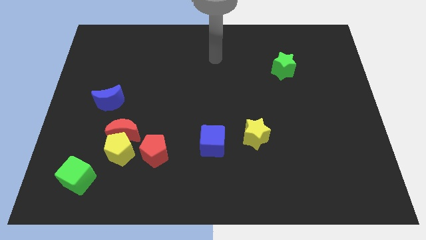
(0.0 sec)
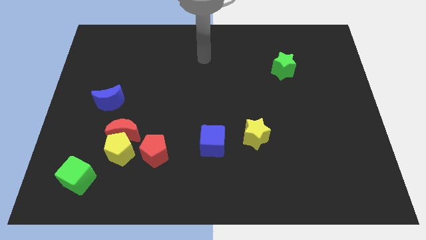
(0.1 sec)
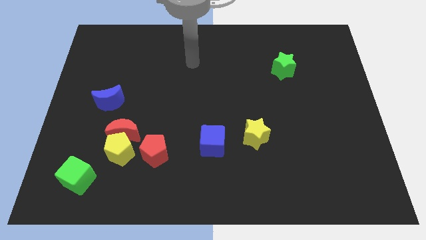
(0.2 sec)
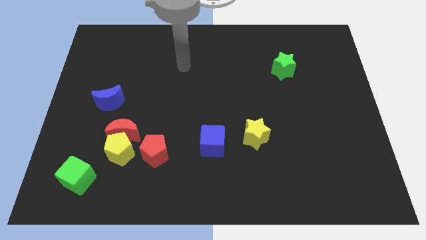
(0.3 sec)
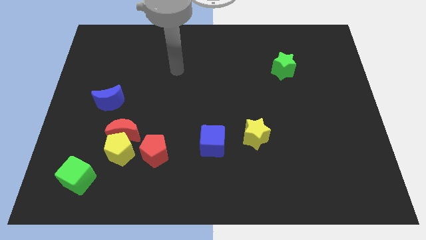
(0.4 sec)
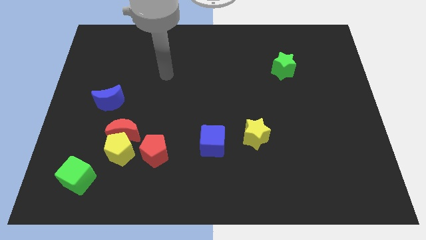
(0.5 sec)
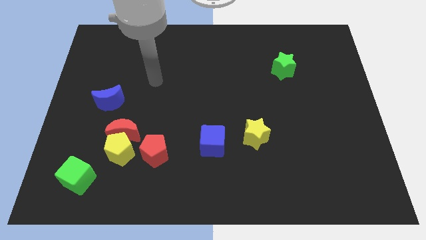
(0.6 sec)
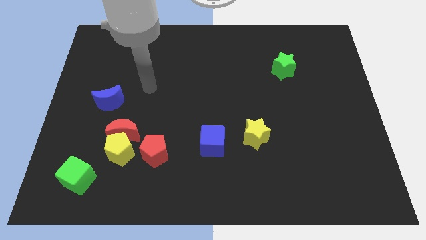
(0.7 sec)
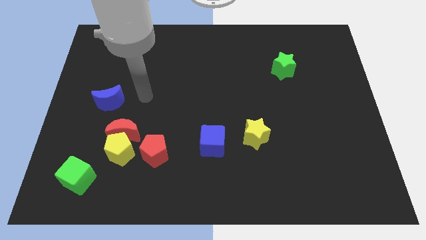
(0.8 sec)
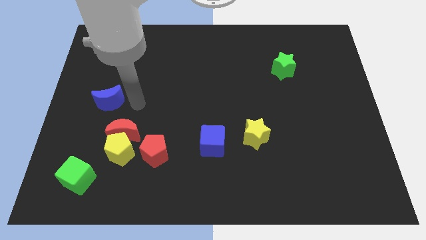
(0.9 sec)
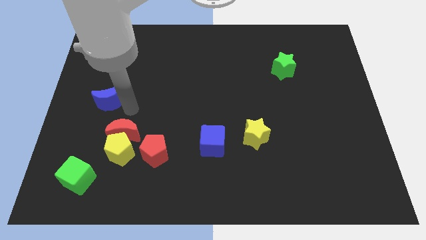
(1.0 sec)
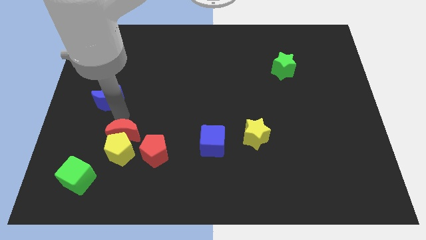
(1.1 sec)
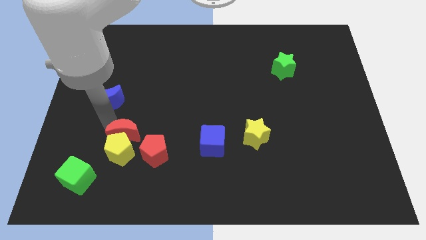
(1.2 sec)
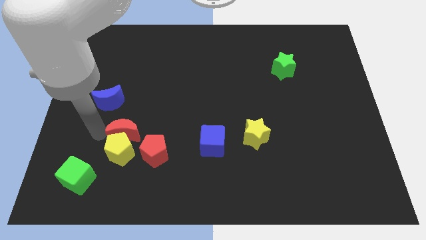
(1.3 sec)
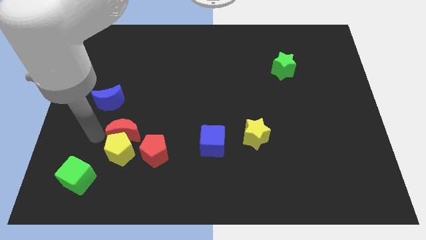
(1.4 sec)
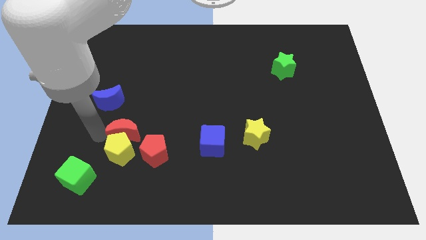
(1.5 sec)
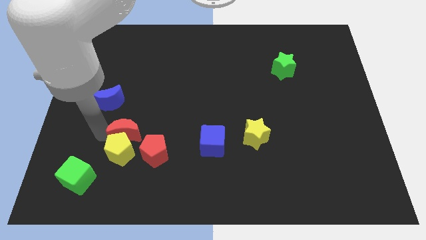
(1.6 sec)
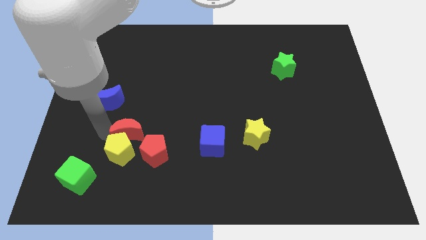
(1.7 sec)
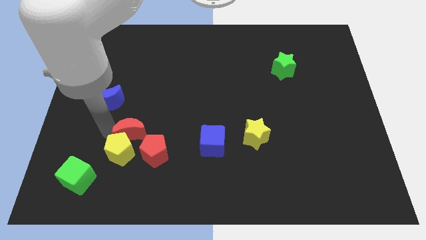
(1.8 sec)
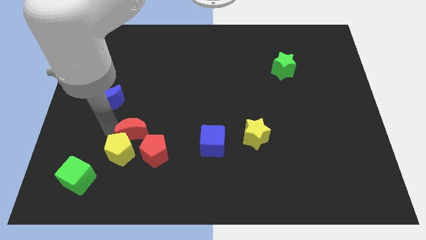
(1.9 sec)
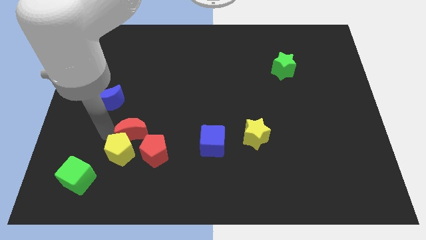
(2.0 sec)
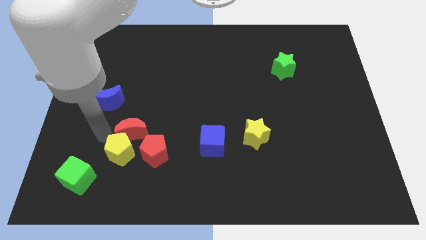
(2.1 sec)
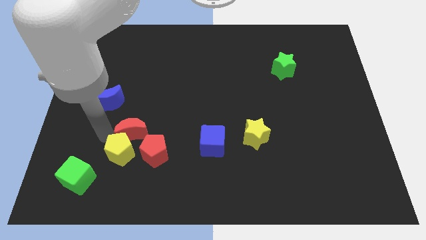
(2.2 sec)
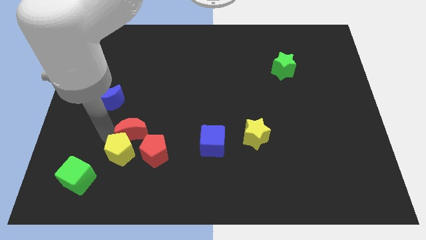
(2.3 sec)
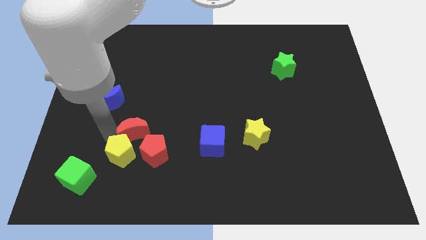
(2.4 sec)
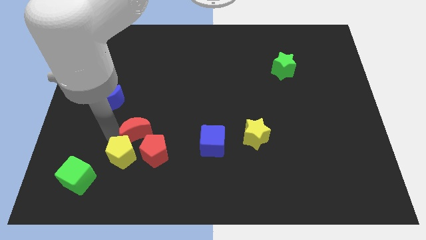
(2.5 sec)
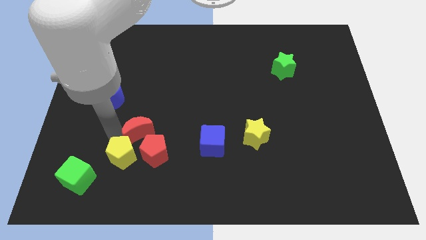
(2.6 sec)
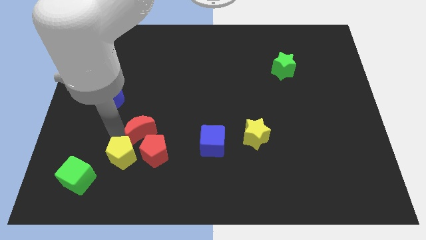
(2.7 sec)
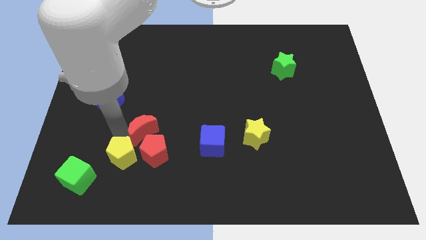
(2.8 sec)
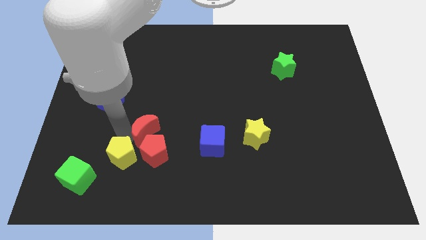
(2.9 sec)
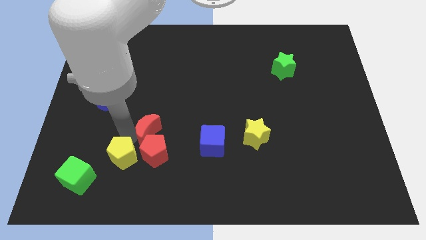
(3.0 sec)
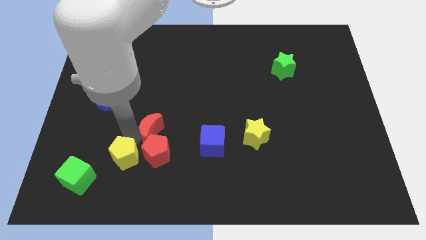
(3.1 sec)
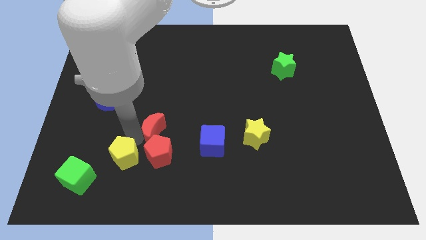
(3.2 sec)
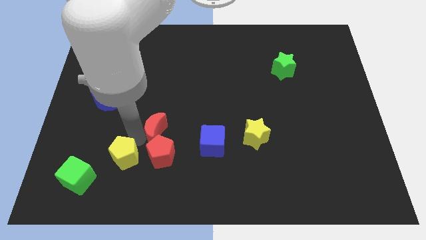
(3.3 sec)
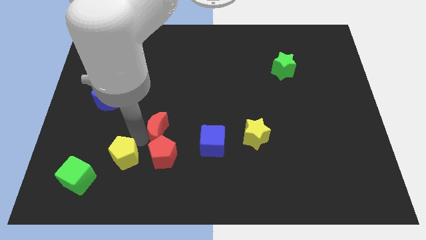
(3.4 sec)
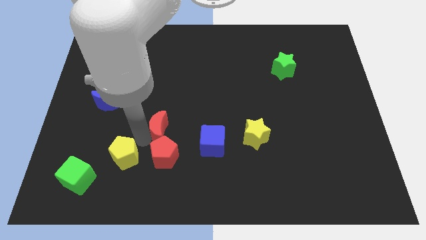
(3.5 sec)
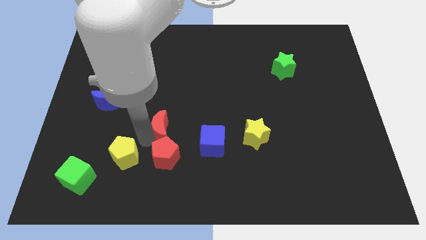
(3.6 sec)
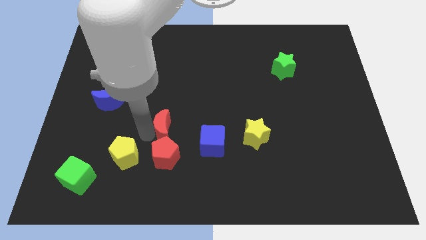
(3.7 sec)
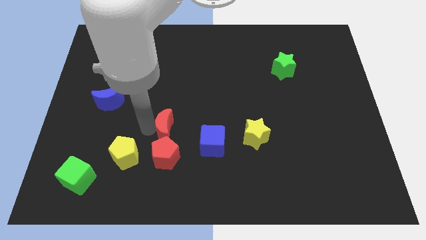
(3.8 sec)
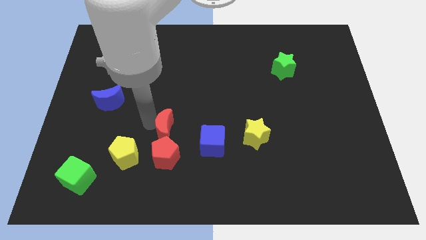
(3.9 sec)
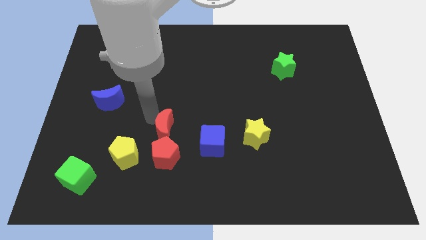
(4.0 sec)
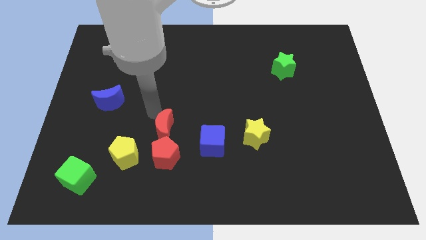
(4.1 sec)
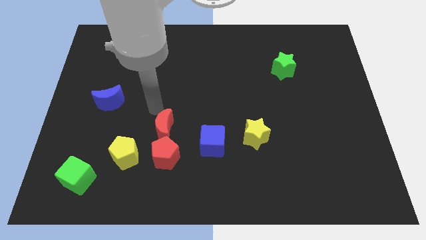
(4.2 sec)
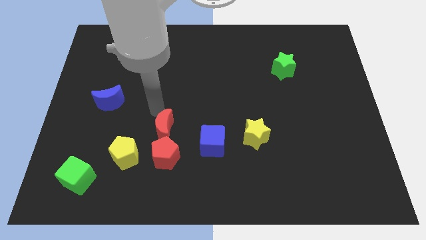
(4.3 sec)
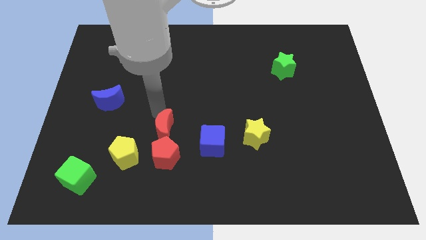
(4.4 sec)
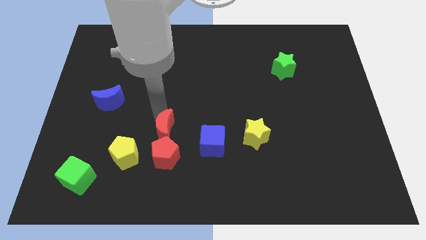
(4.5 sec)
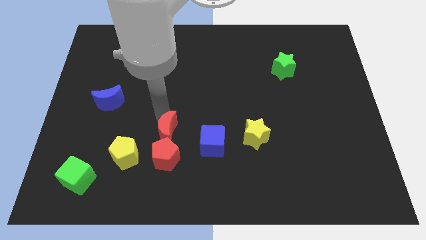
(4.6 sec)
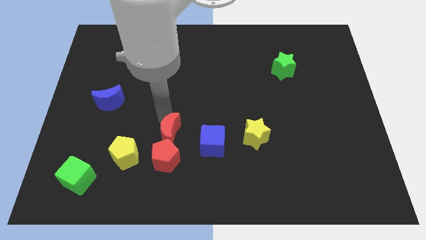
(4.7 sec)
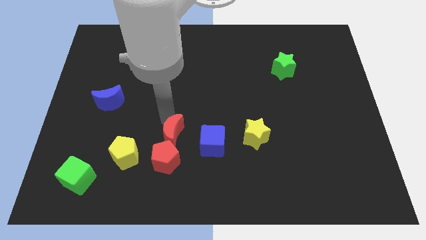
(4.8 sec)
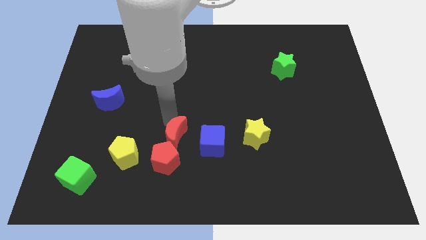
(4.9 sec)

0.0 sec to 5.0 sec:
slide the red moon to the right side of the yellow pentagon

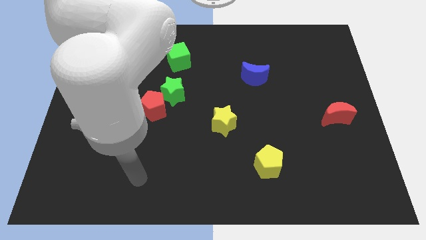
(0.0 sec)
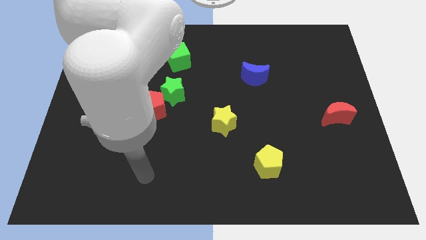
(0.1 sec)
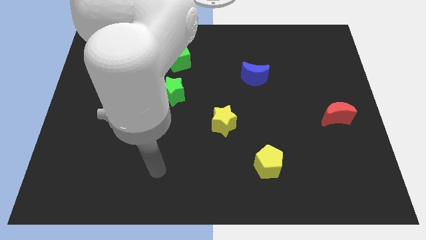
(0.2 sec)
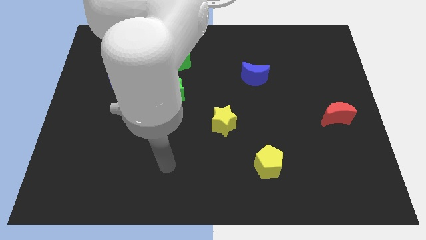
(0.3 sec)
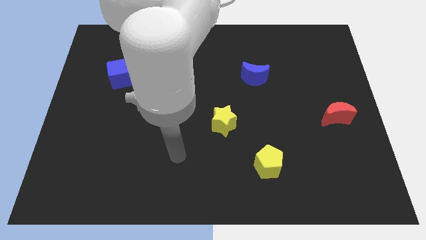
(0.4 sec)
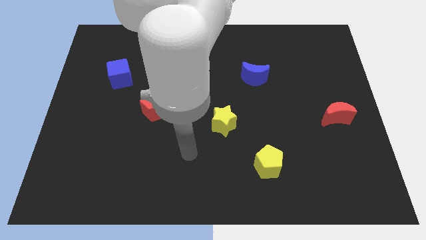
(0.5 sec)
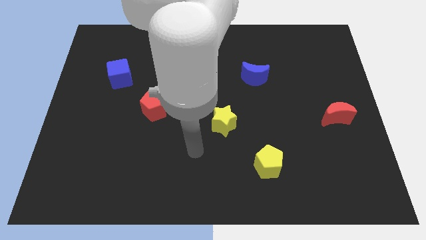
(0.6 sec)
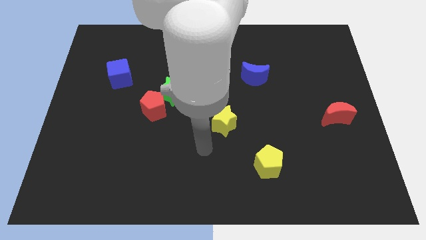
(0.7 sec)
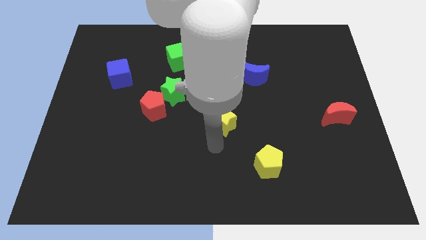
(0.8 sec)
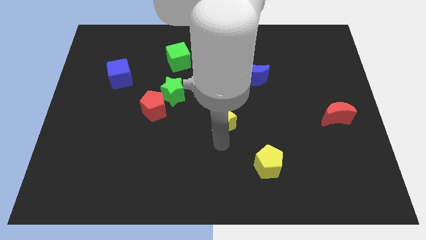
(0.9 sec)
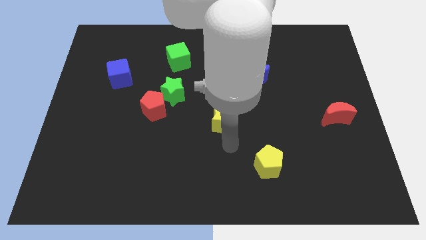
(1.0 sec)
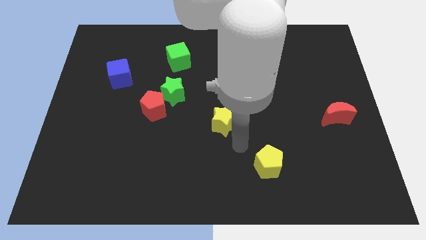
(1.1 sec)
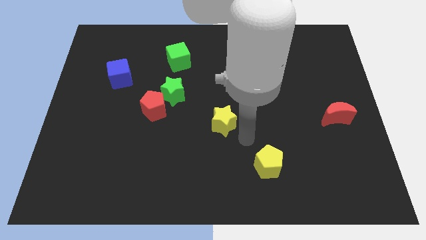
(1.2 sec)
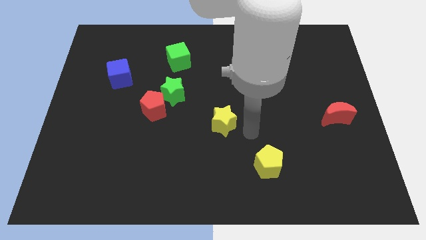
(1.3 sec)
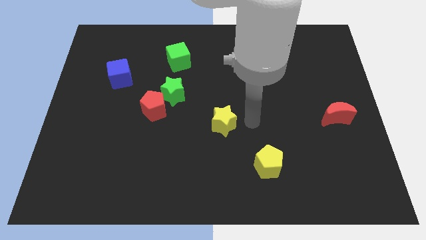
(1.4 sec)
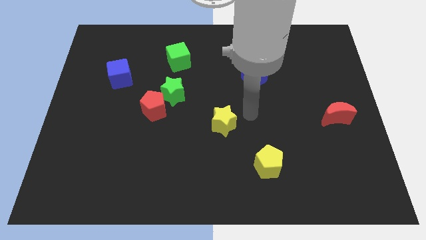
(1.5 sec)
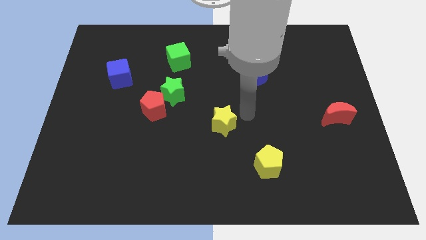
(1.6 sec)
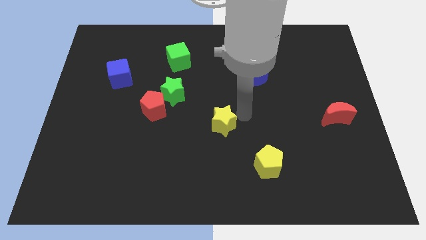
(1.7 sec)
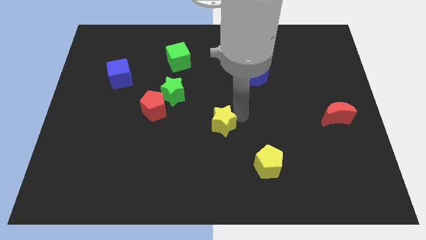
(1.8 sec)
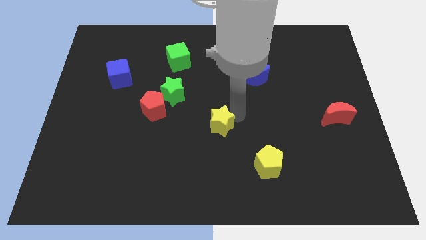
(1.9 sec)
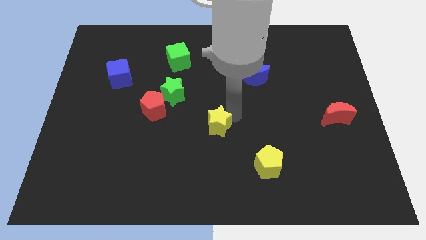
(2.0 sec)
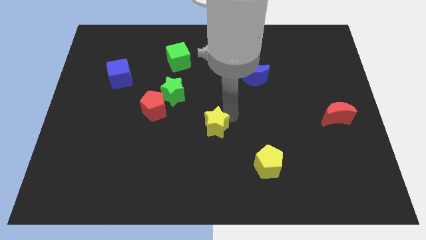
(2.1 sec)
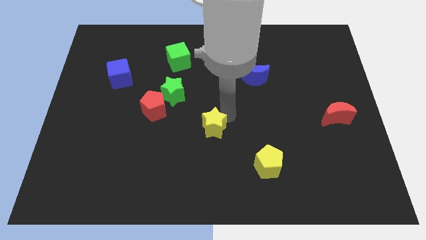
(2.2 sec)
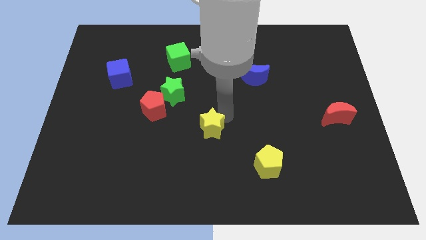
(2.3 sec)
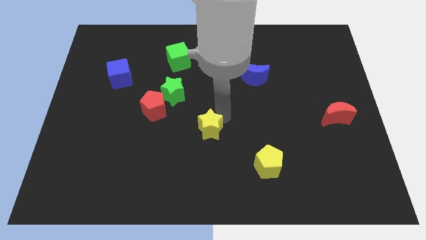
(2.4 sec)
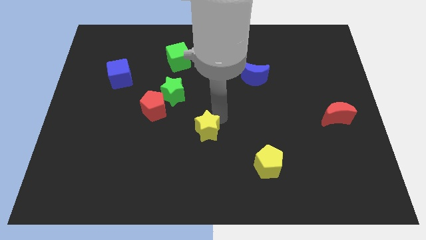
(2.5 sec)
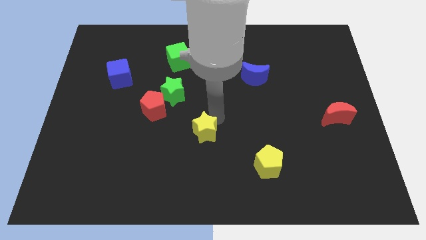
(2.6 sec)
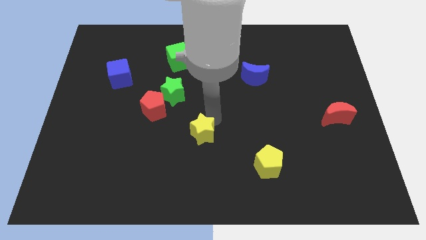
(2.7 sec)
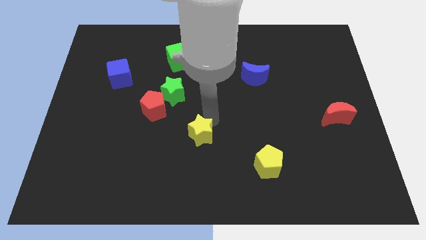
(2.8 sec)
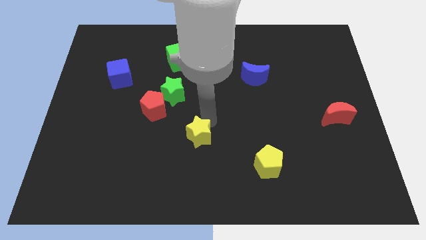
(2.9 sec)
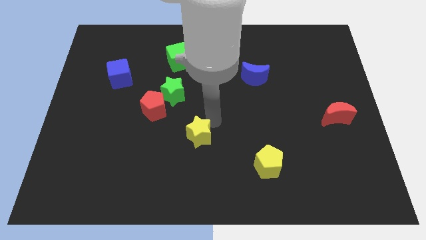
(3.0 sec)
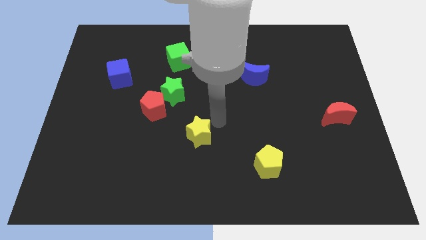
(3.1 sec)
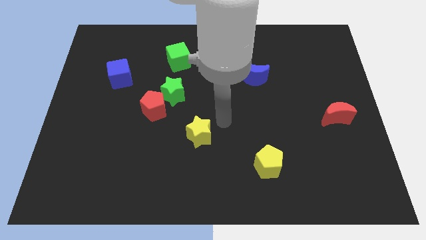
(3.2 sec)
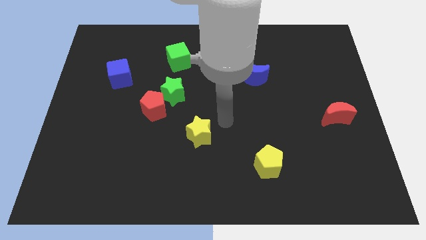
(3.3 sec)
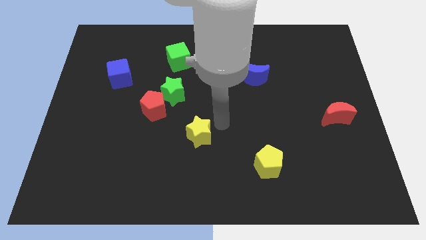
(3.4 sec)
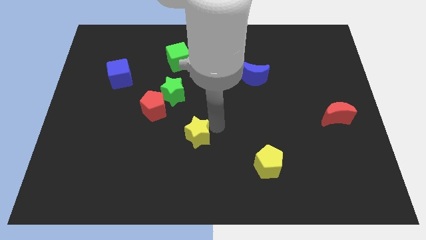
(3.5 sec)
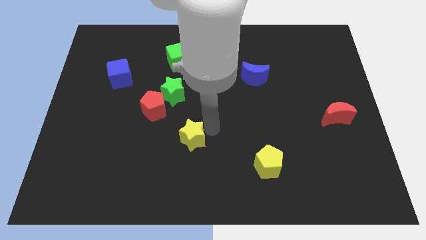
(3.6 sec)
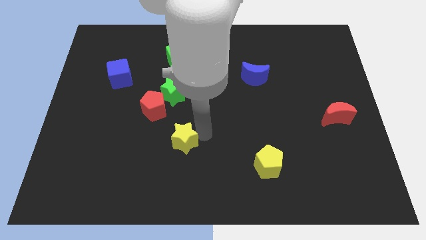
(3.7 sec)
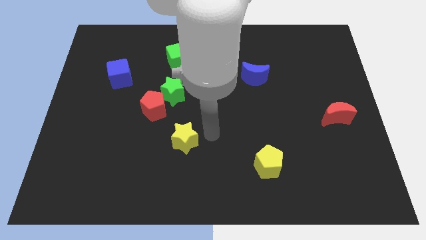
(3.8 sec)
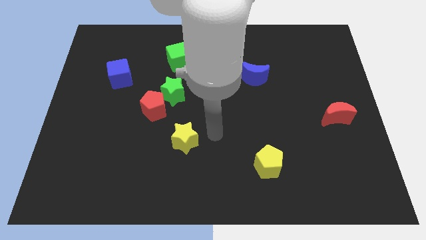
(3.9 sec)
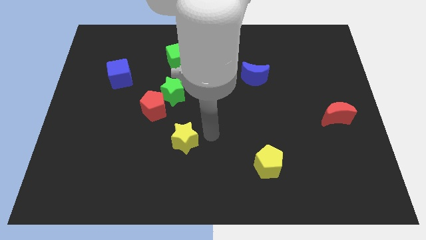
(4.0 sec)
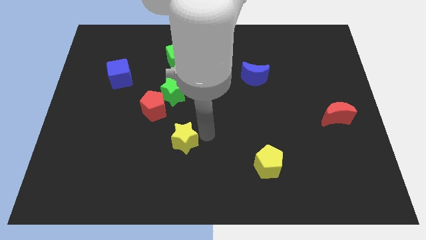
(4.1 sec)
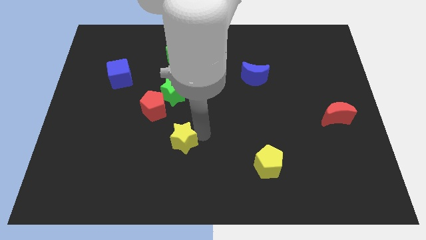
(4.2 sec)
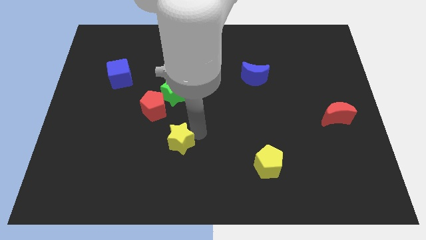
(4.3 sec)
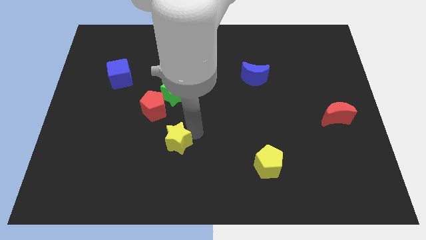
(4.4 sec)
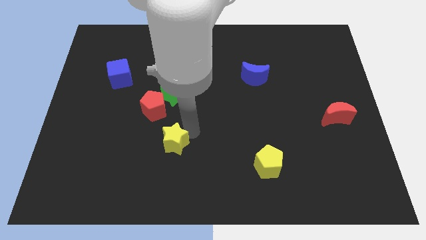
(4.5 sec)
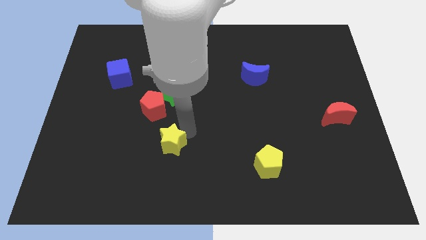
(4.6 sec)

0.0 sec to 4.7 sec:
put the yellow star to the bottom side of the red pentagon
